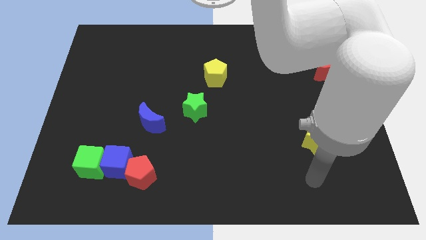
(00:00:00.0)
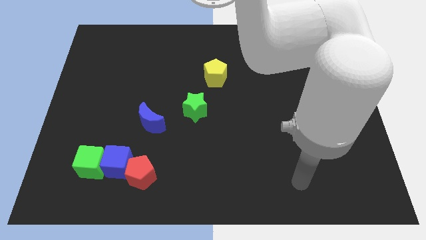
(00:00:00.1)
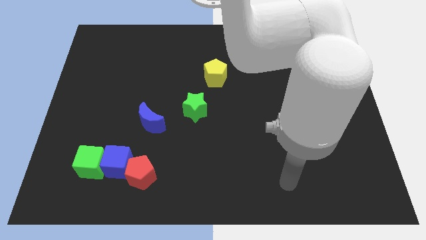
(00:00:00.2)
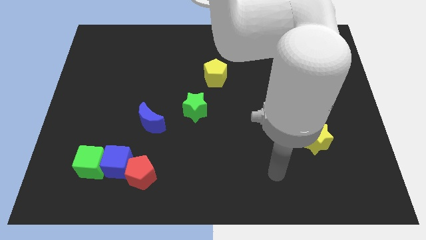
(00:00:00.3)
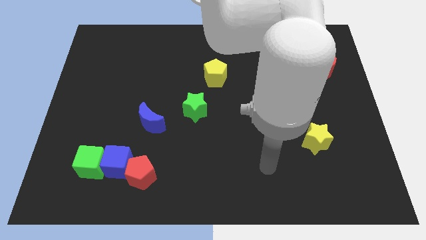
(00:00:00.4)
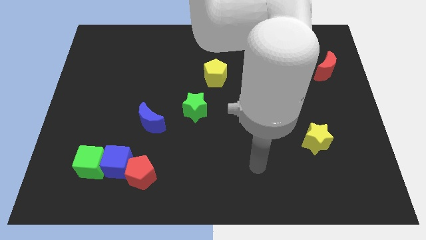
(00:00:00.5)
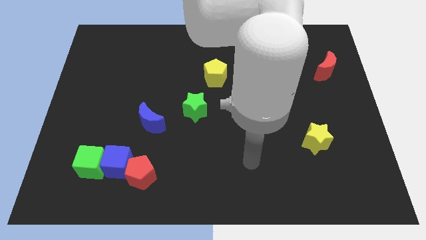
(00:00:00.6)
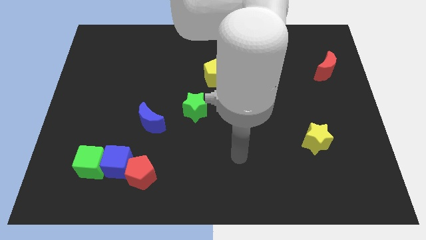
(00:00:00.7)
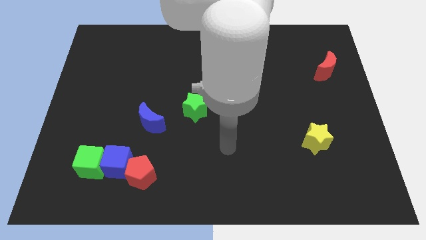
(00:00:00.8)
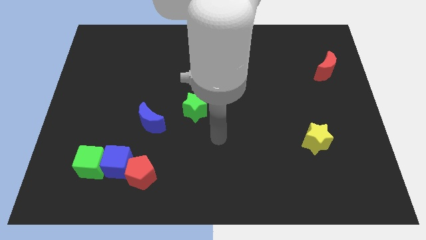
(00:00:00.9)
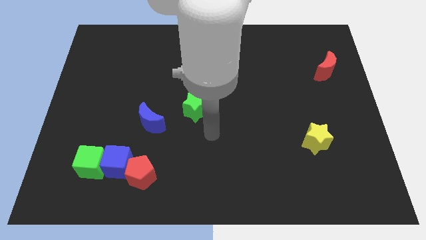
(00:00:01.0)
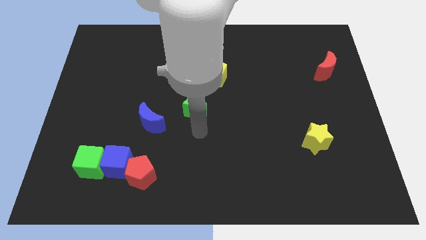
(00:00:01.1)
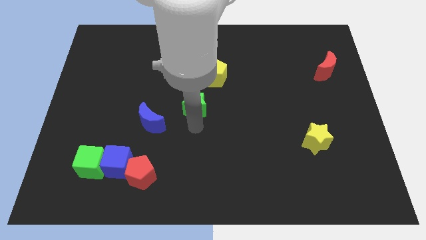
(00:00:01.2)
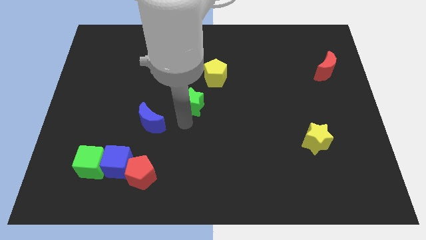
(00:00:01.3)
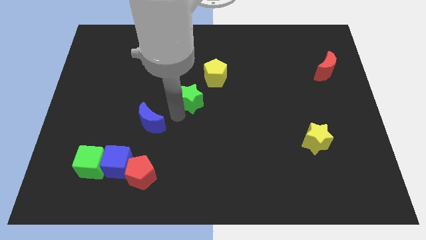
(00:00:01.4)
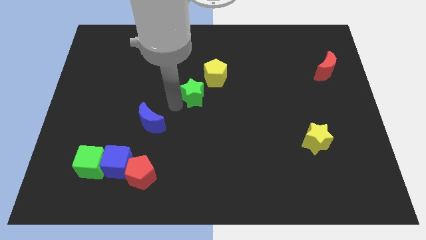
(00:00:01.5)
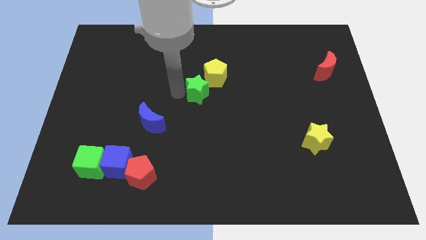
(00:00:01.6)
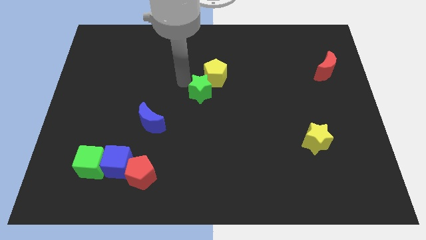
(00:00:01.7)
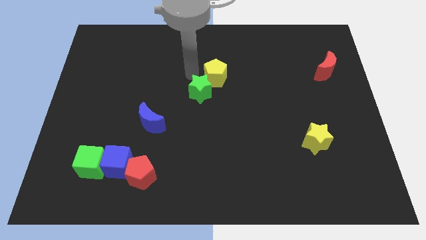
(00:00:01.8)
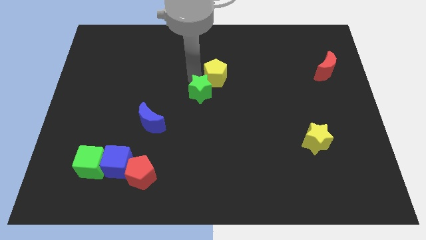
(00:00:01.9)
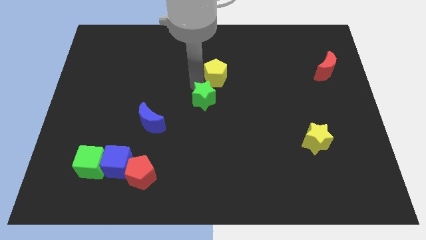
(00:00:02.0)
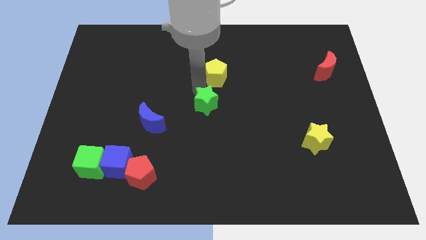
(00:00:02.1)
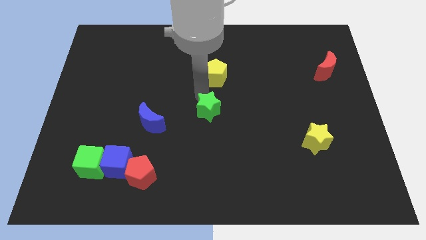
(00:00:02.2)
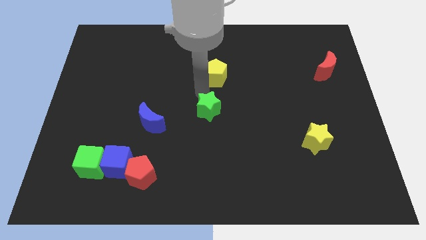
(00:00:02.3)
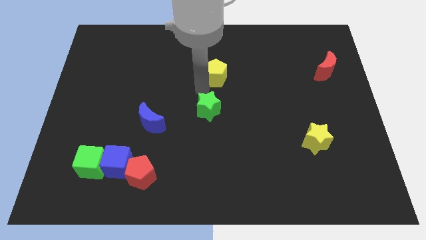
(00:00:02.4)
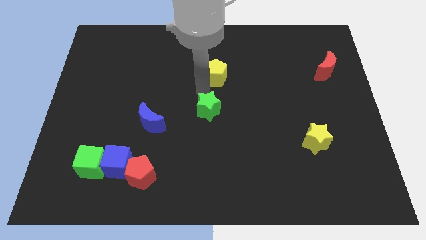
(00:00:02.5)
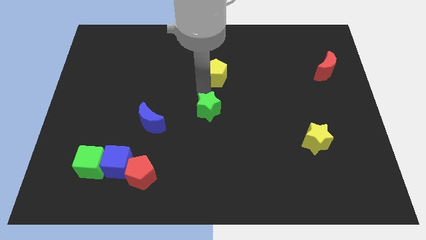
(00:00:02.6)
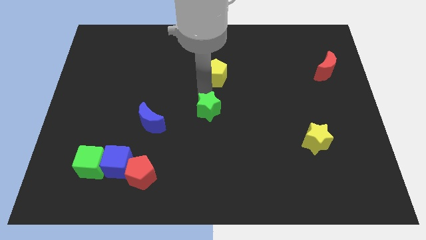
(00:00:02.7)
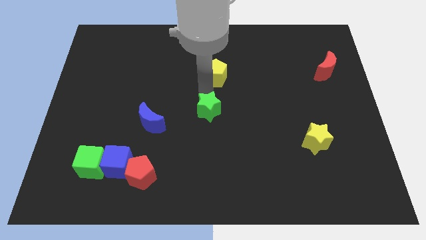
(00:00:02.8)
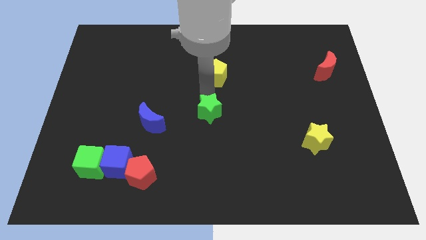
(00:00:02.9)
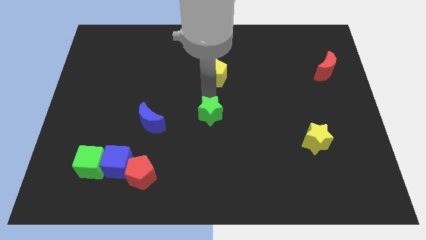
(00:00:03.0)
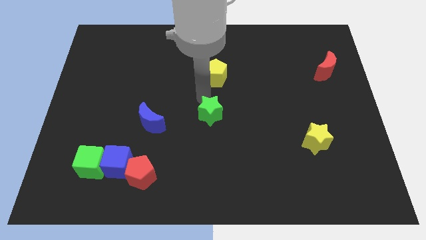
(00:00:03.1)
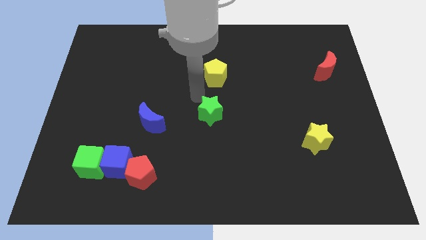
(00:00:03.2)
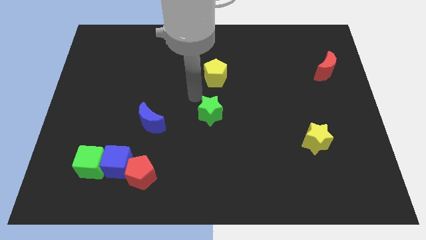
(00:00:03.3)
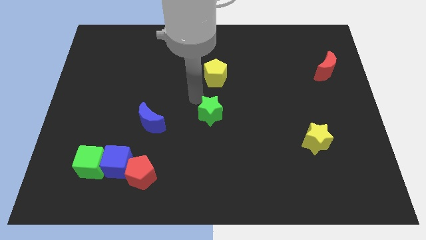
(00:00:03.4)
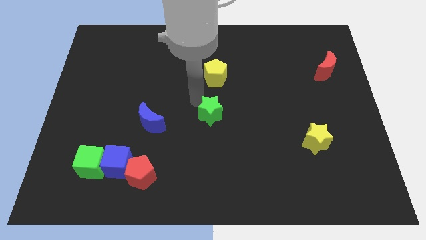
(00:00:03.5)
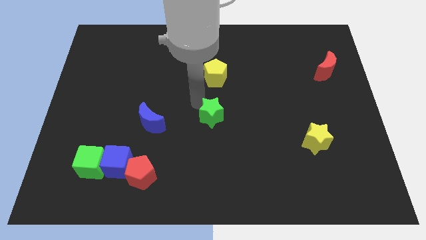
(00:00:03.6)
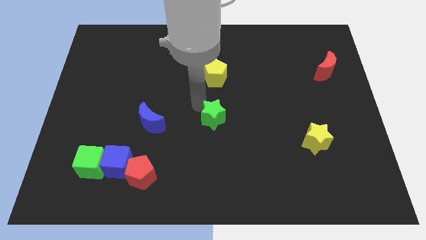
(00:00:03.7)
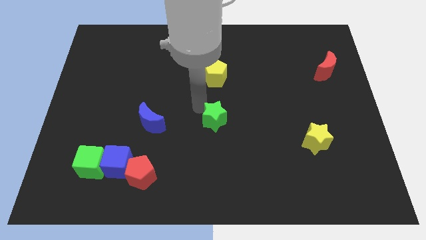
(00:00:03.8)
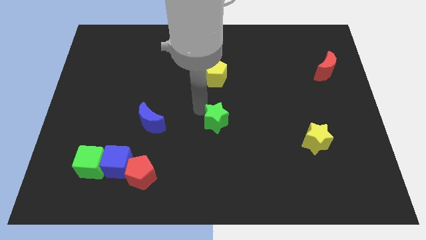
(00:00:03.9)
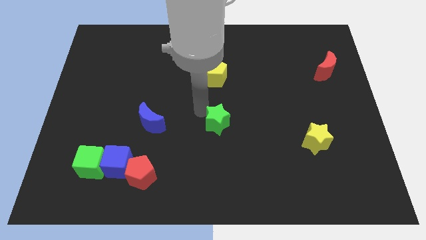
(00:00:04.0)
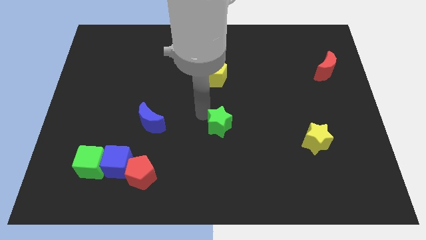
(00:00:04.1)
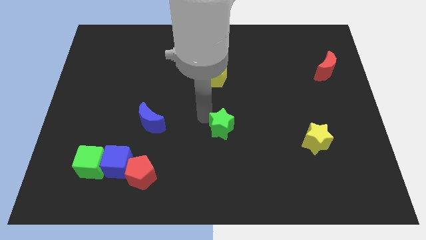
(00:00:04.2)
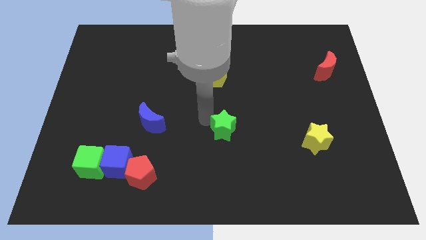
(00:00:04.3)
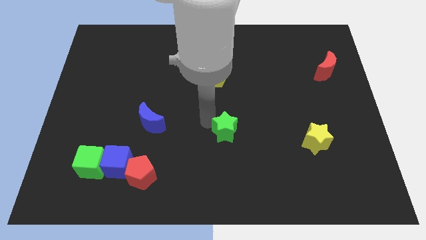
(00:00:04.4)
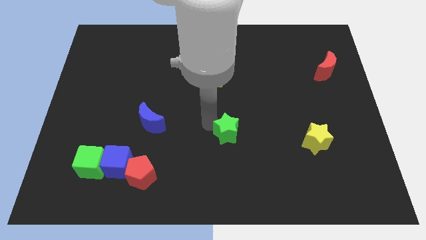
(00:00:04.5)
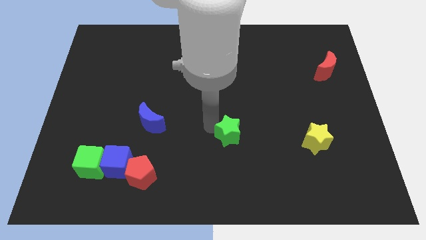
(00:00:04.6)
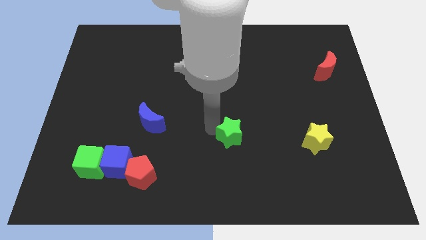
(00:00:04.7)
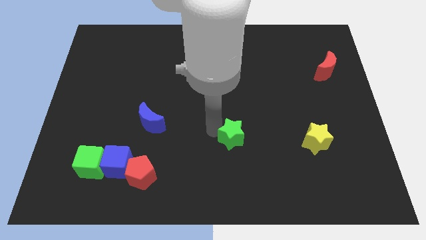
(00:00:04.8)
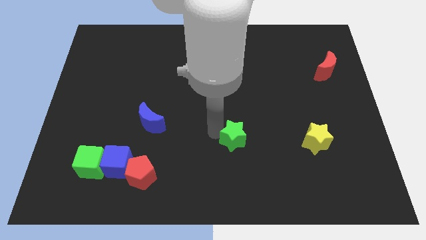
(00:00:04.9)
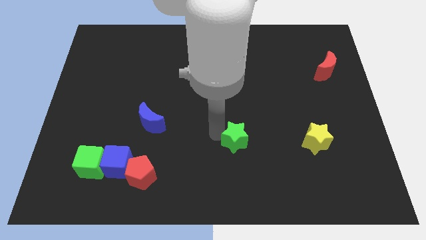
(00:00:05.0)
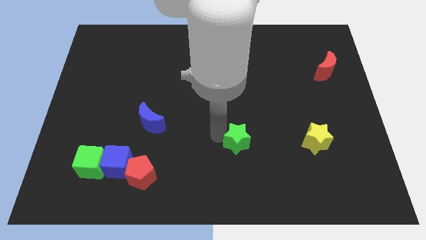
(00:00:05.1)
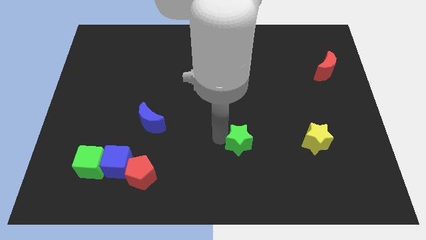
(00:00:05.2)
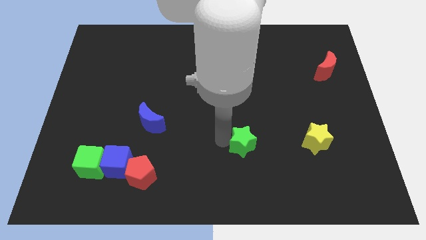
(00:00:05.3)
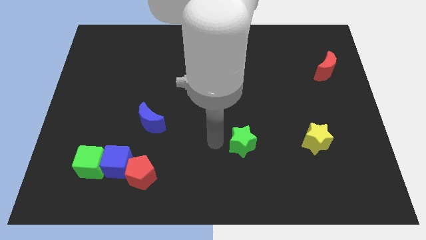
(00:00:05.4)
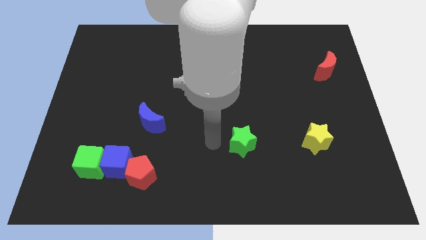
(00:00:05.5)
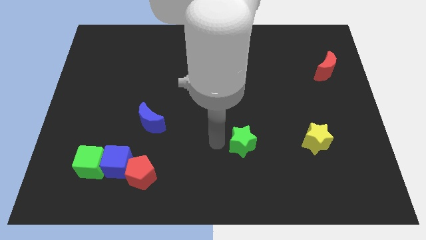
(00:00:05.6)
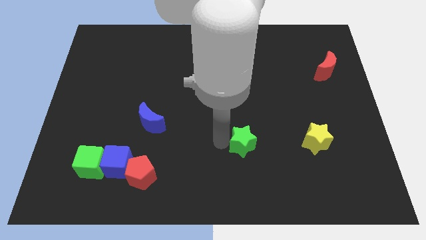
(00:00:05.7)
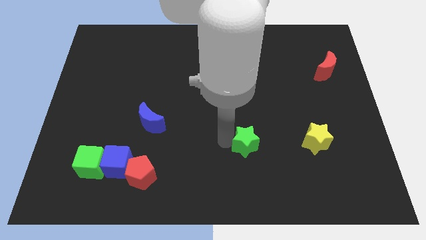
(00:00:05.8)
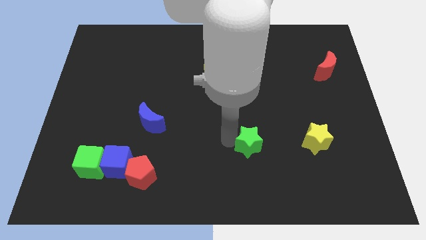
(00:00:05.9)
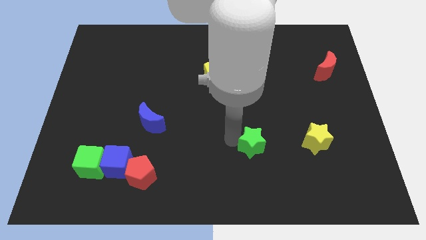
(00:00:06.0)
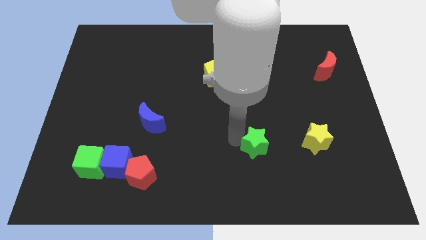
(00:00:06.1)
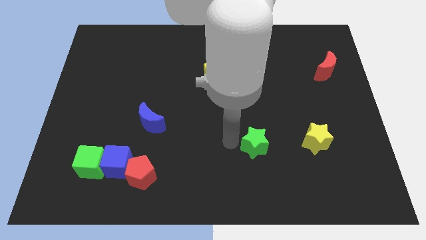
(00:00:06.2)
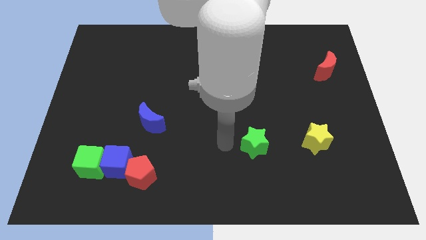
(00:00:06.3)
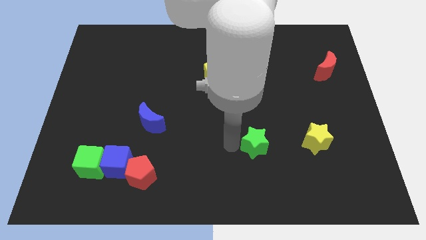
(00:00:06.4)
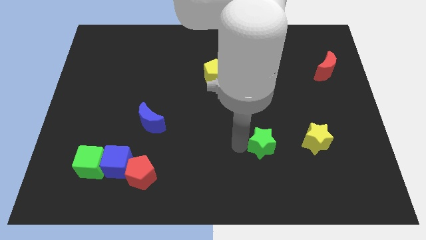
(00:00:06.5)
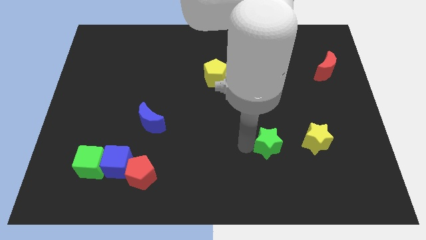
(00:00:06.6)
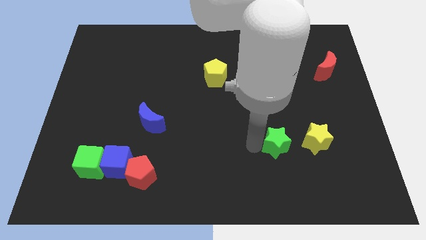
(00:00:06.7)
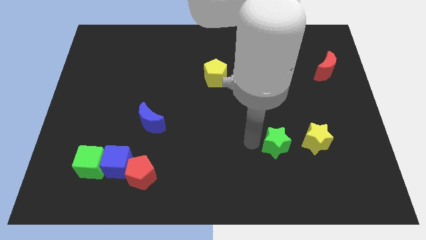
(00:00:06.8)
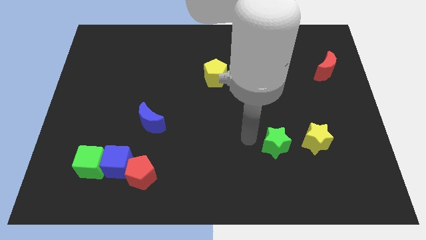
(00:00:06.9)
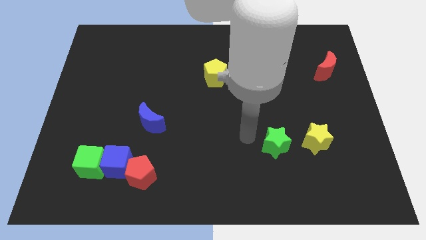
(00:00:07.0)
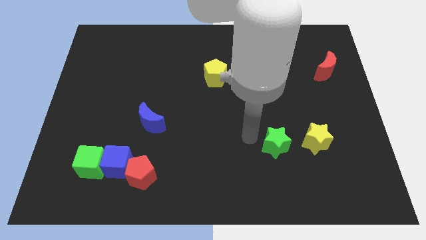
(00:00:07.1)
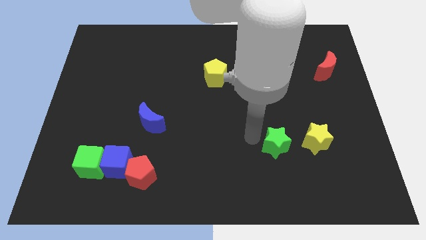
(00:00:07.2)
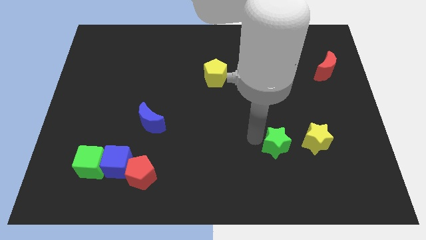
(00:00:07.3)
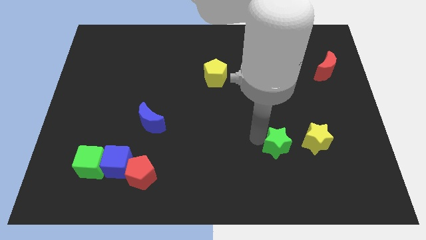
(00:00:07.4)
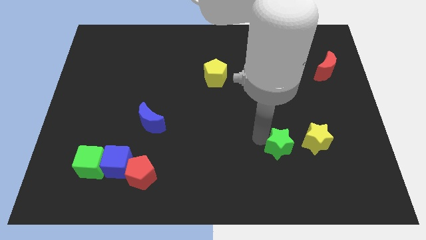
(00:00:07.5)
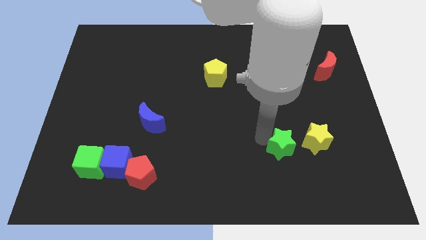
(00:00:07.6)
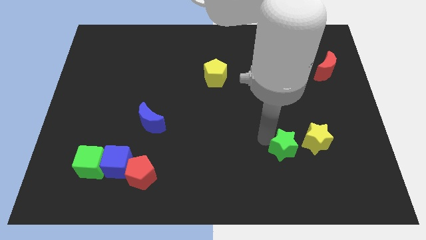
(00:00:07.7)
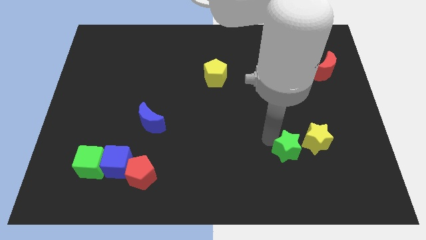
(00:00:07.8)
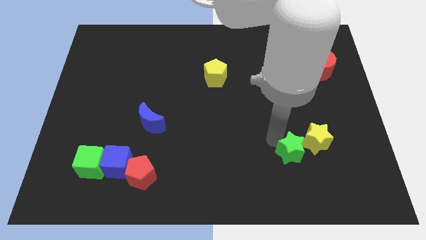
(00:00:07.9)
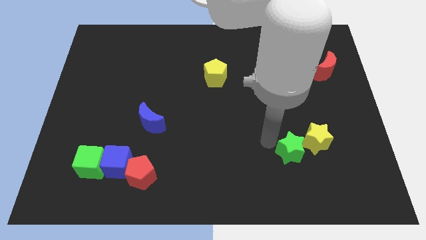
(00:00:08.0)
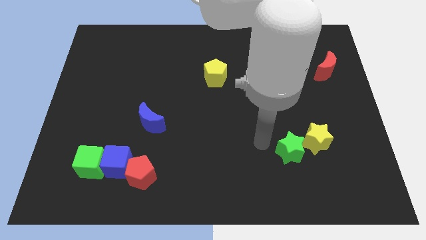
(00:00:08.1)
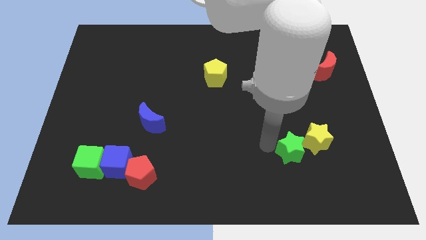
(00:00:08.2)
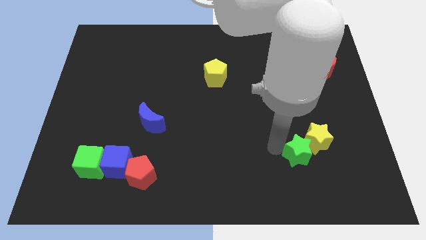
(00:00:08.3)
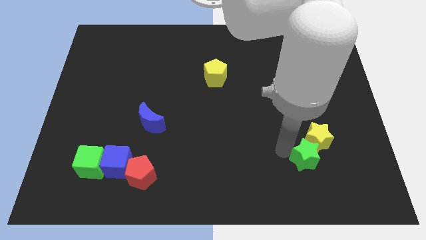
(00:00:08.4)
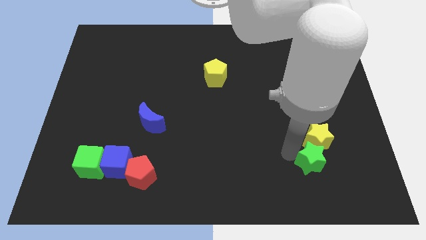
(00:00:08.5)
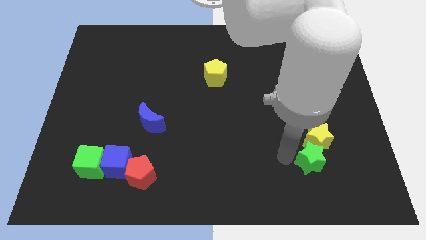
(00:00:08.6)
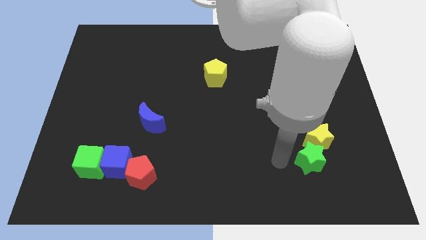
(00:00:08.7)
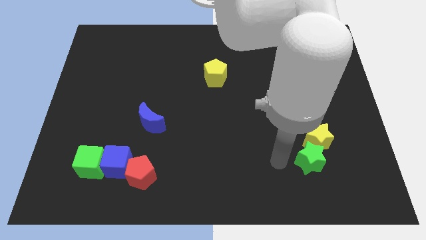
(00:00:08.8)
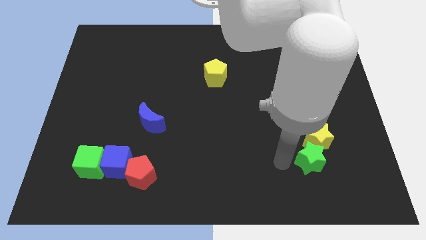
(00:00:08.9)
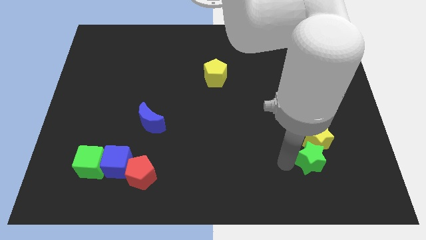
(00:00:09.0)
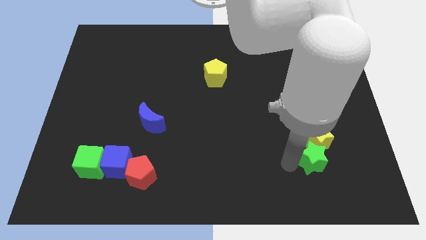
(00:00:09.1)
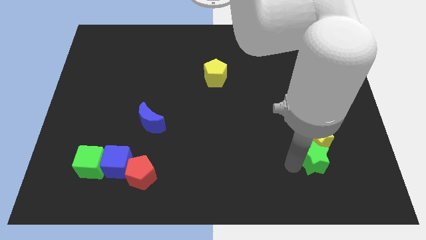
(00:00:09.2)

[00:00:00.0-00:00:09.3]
put the green star diagonally down and to the right of the yellow star
